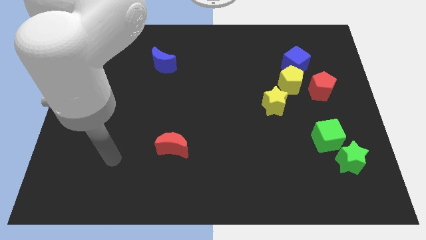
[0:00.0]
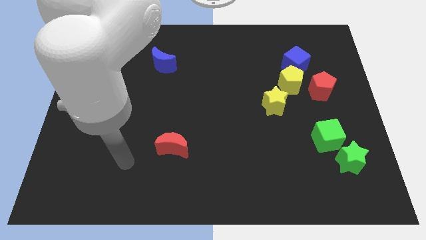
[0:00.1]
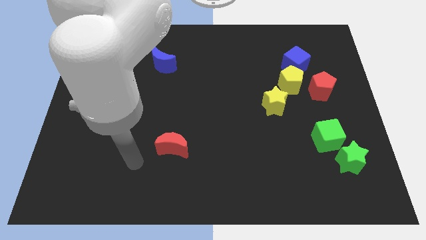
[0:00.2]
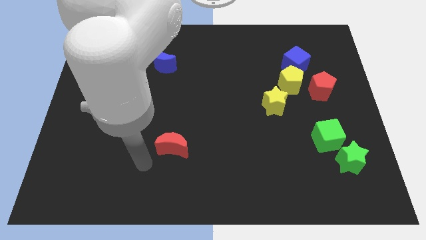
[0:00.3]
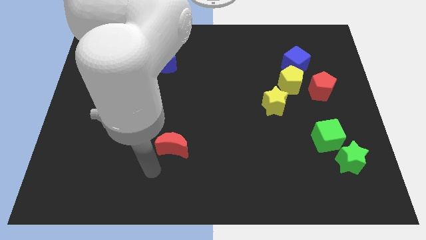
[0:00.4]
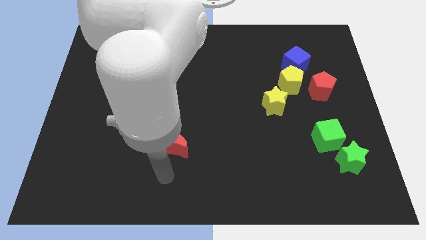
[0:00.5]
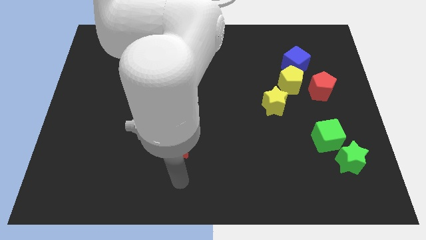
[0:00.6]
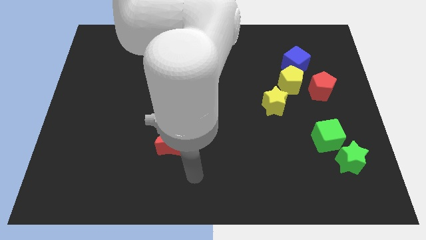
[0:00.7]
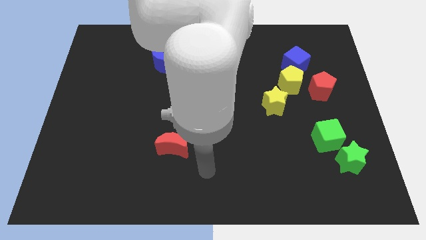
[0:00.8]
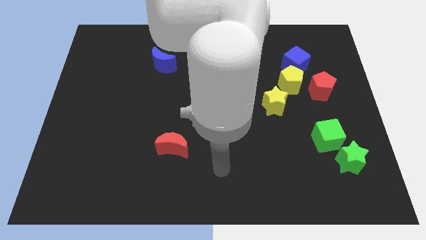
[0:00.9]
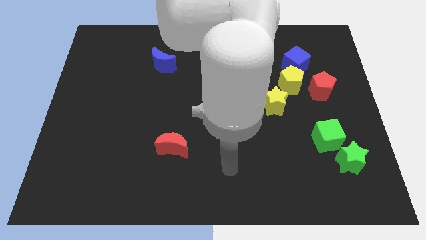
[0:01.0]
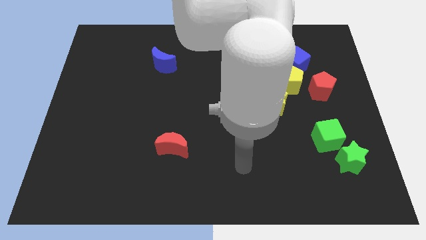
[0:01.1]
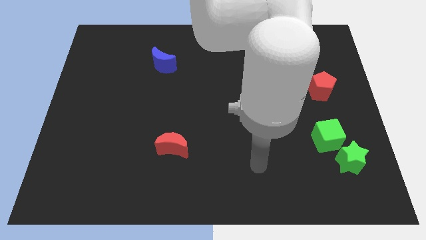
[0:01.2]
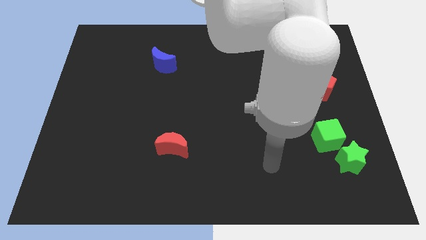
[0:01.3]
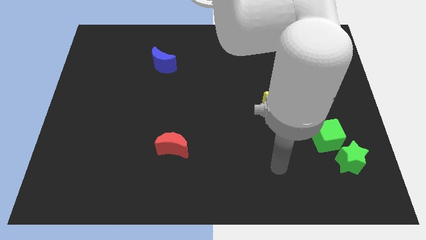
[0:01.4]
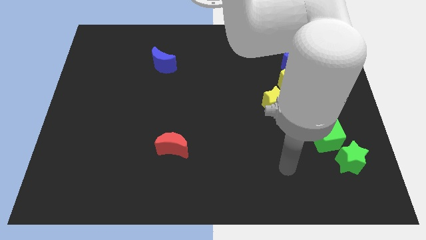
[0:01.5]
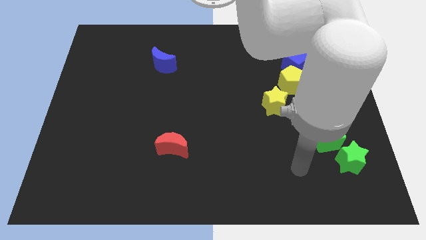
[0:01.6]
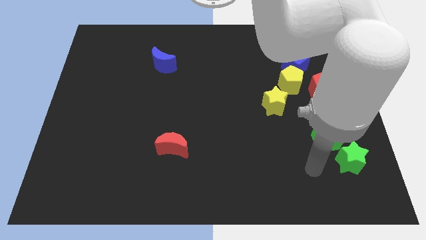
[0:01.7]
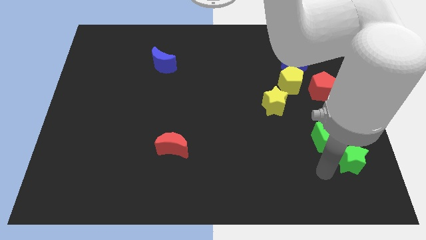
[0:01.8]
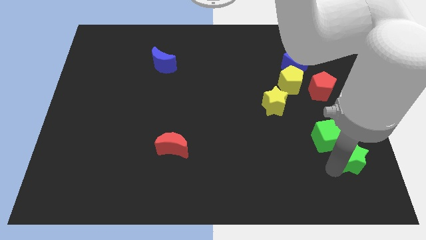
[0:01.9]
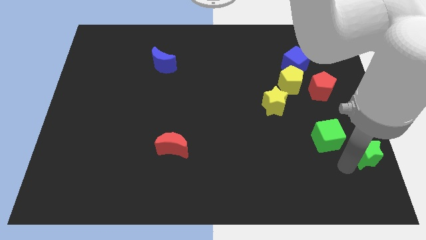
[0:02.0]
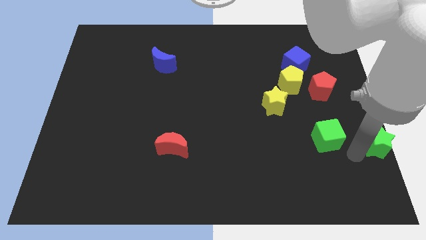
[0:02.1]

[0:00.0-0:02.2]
move the green cube away from the green star

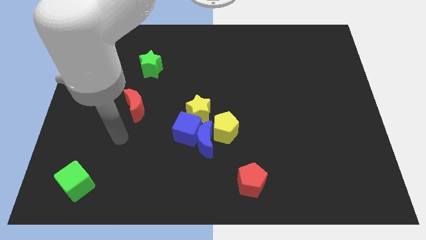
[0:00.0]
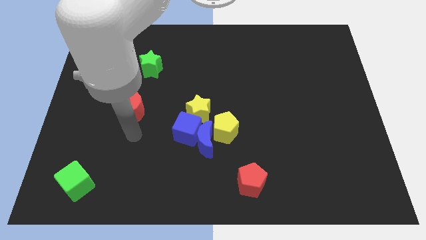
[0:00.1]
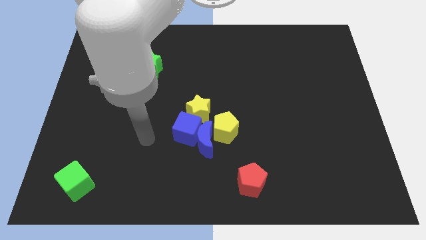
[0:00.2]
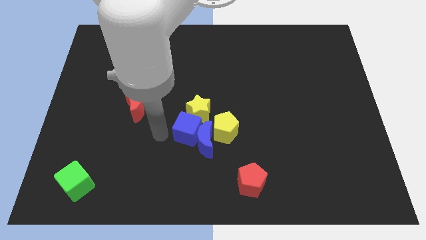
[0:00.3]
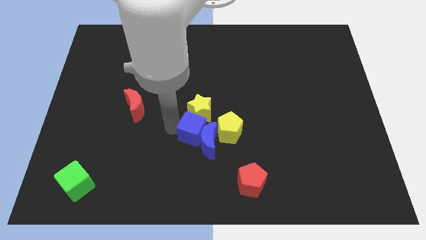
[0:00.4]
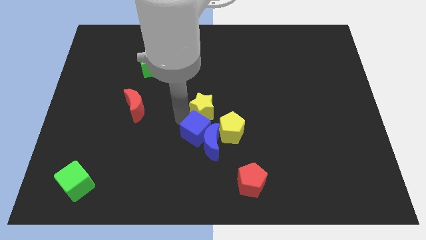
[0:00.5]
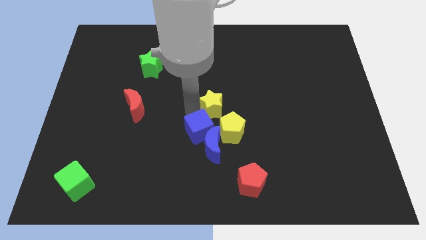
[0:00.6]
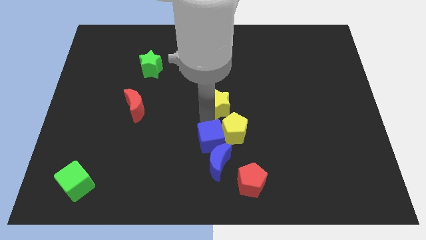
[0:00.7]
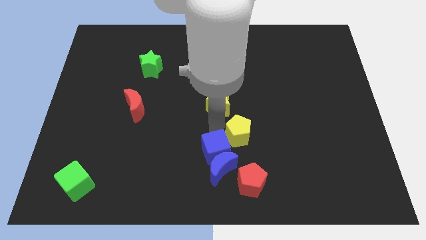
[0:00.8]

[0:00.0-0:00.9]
move the blue moon away from the blue cube, yellow pentagon, and yellow star

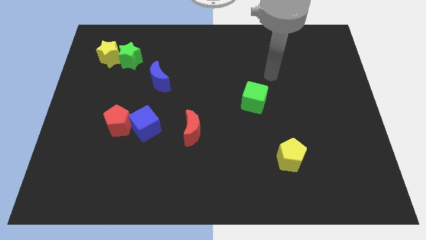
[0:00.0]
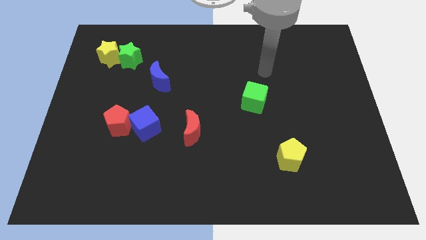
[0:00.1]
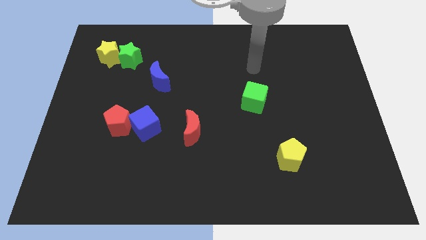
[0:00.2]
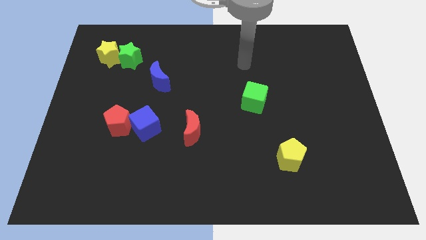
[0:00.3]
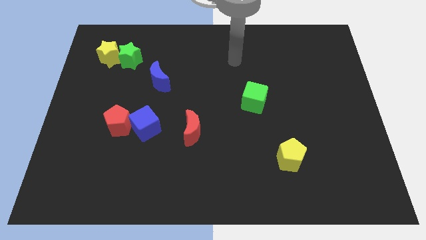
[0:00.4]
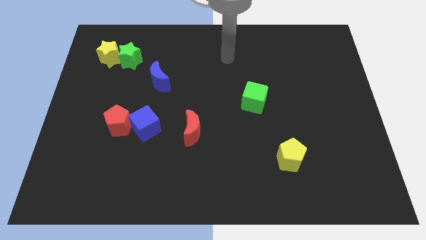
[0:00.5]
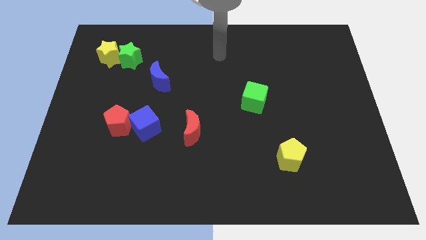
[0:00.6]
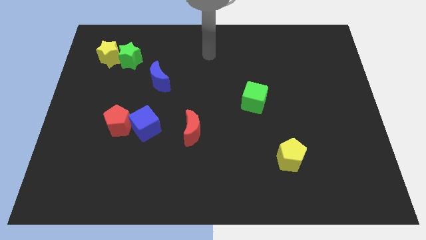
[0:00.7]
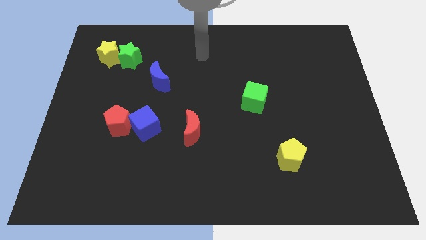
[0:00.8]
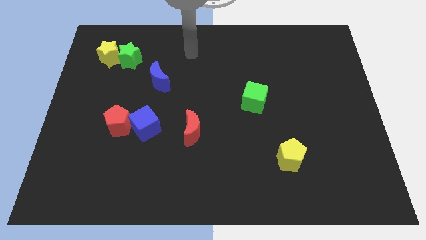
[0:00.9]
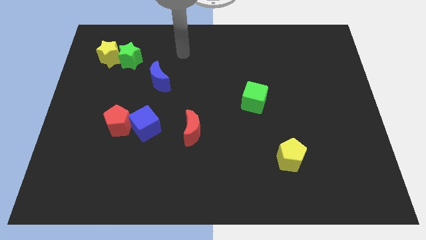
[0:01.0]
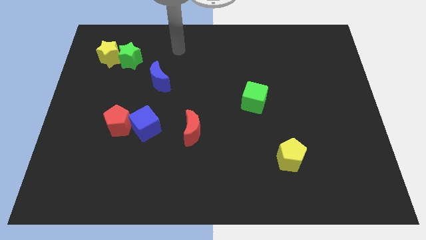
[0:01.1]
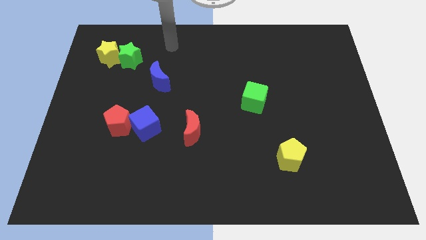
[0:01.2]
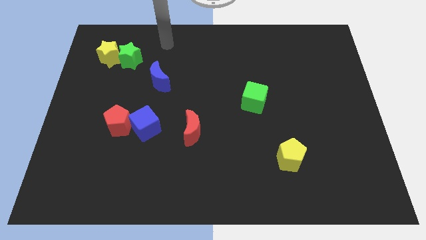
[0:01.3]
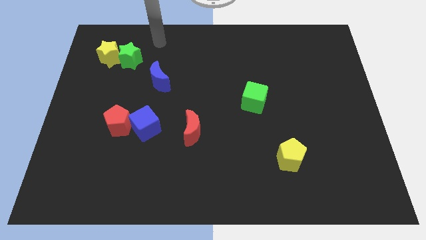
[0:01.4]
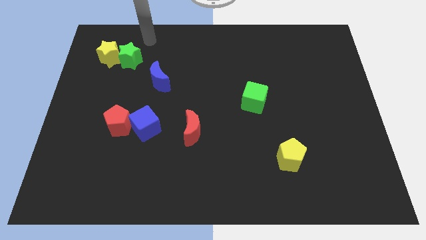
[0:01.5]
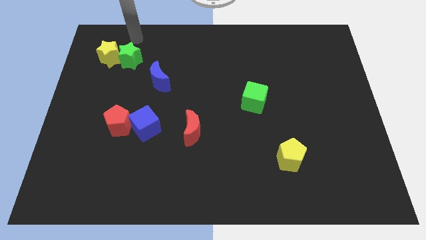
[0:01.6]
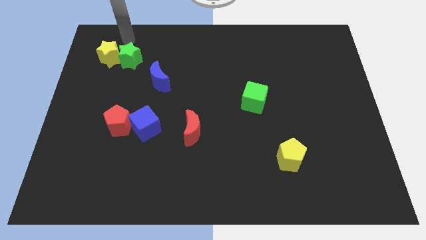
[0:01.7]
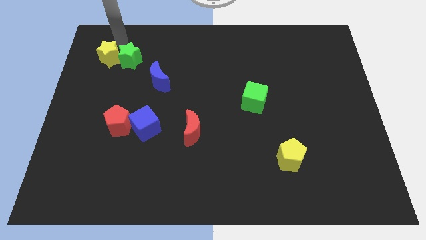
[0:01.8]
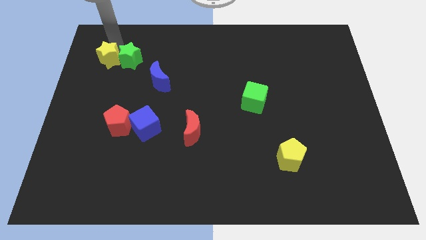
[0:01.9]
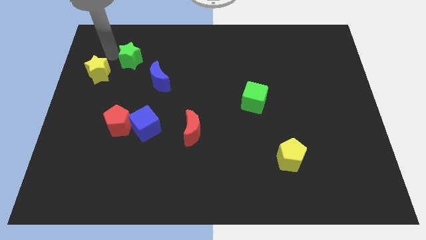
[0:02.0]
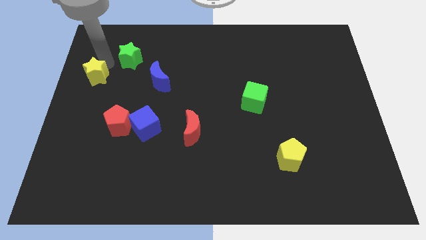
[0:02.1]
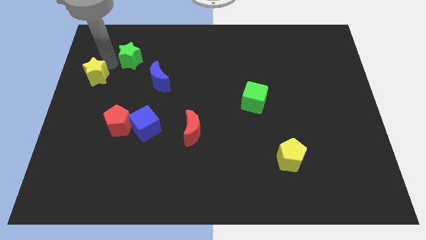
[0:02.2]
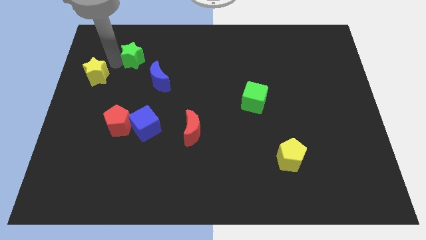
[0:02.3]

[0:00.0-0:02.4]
move the green star away from the yellow star

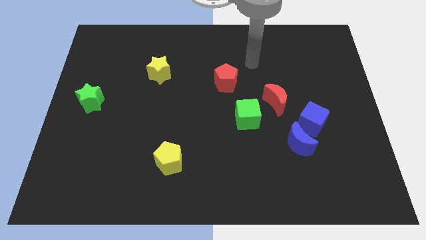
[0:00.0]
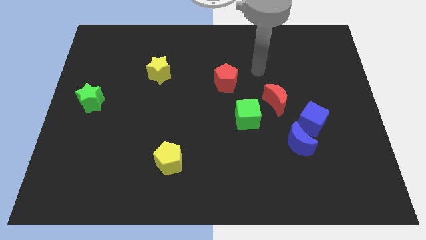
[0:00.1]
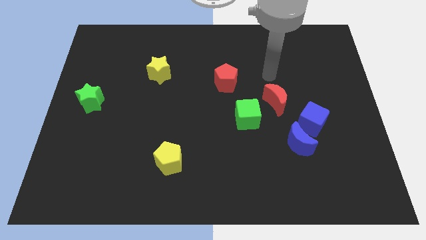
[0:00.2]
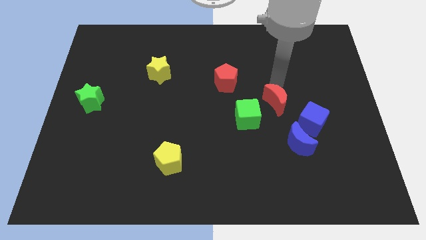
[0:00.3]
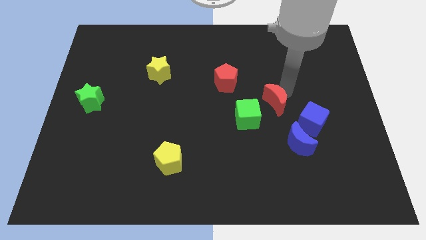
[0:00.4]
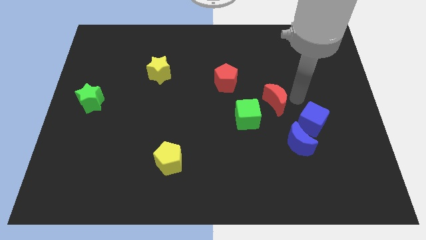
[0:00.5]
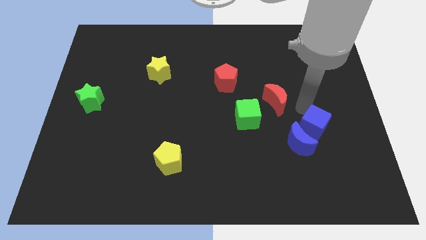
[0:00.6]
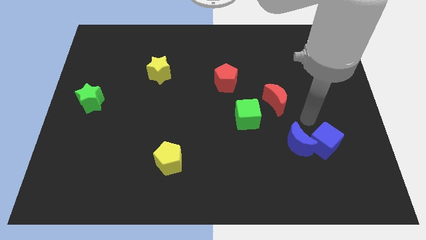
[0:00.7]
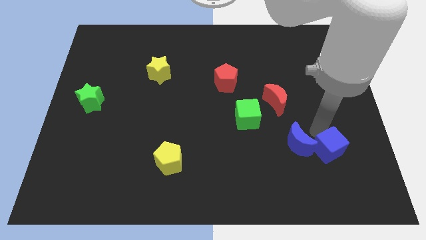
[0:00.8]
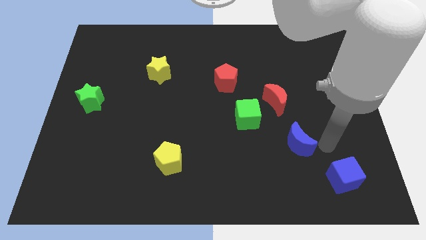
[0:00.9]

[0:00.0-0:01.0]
pull the blue moon apart from the blue cube

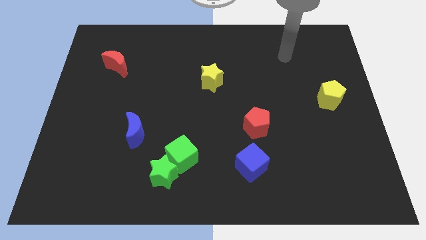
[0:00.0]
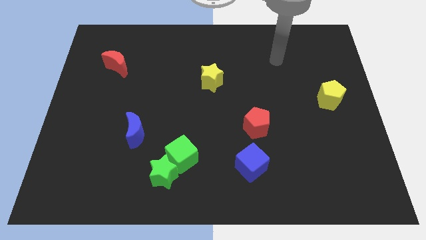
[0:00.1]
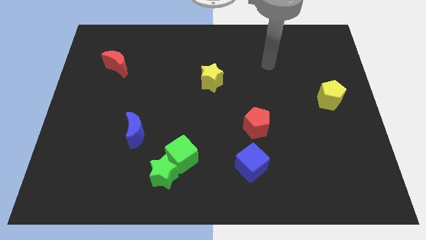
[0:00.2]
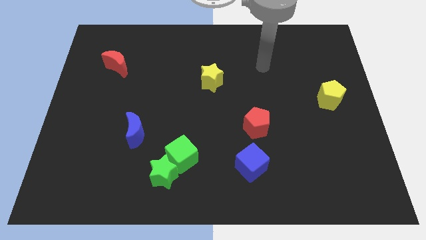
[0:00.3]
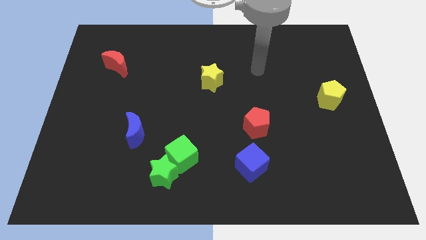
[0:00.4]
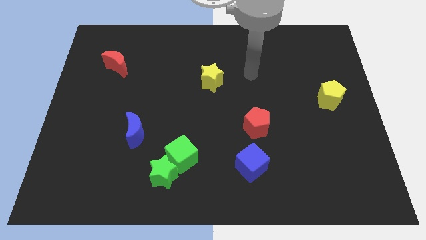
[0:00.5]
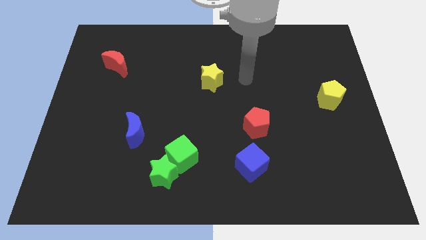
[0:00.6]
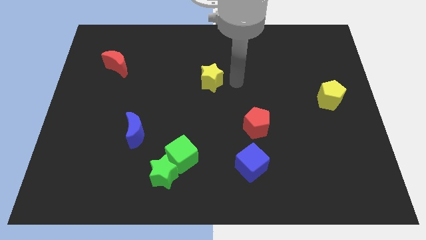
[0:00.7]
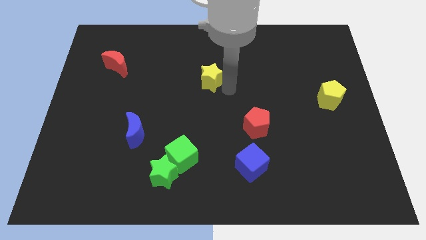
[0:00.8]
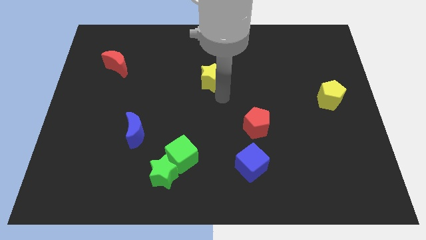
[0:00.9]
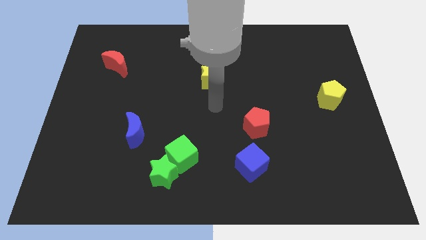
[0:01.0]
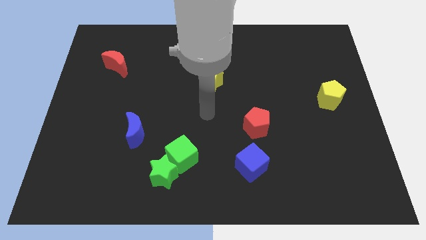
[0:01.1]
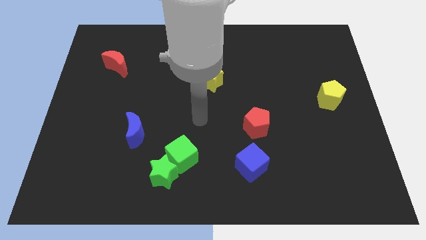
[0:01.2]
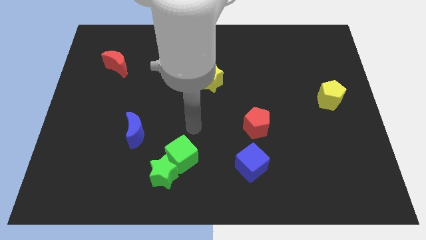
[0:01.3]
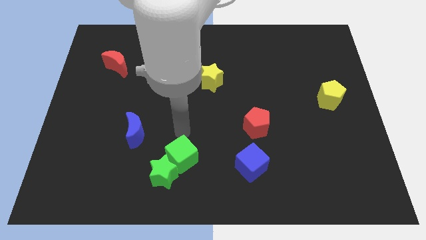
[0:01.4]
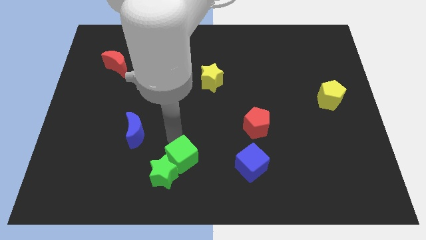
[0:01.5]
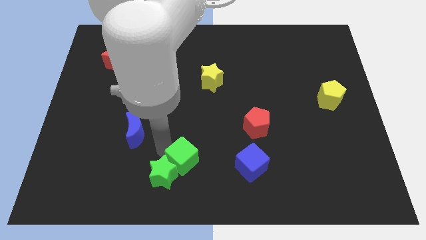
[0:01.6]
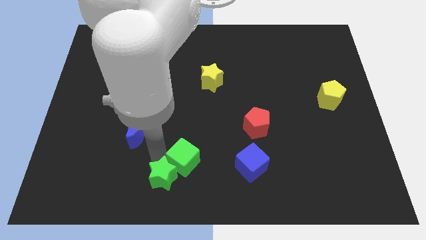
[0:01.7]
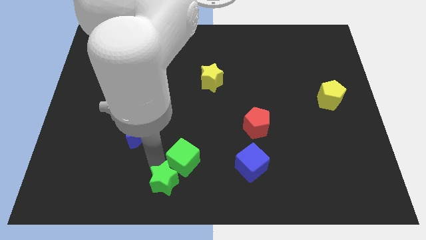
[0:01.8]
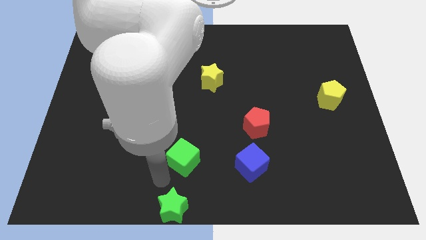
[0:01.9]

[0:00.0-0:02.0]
separate the green cube from the green star

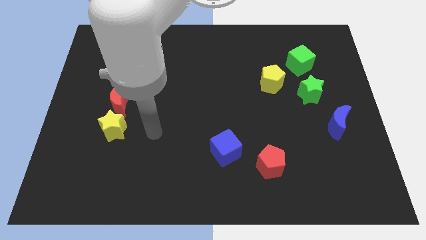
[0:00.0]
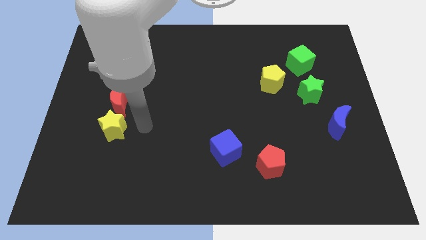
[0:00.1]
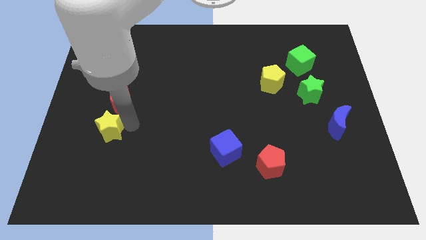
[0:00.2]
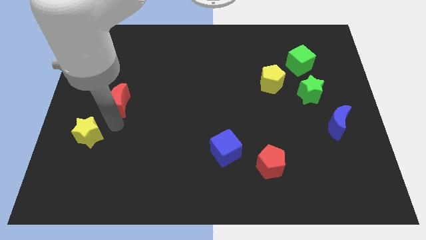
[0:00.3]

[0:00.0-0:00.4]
move the red moon away from the yellow star

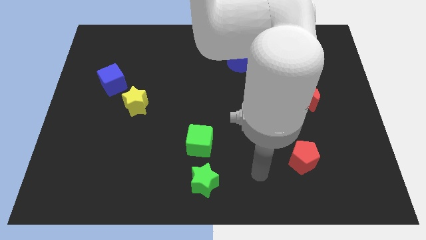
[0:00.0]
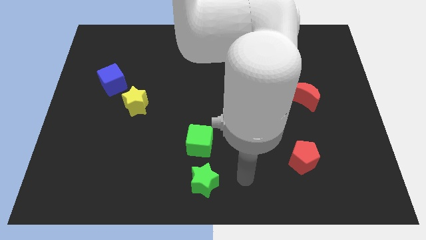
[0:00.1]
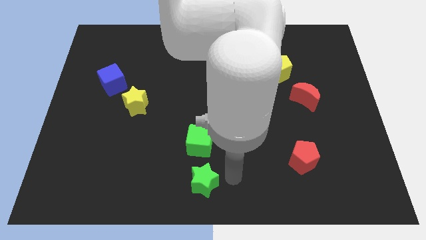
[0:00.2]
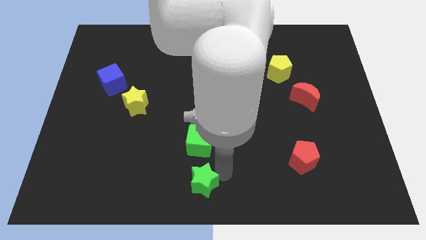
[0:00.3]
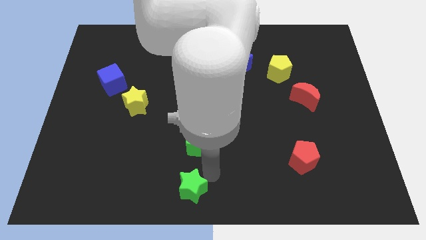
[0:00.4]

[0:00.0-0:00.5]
pull the green cube apart from the green star
